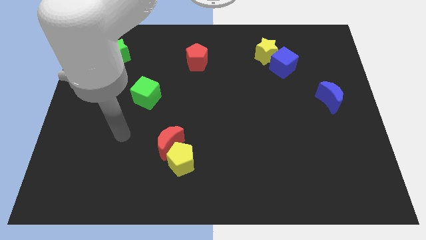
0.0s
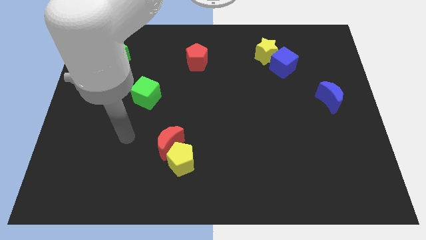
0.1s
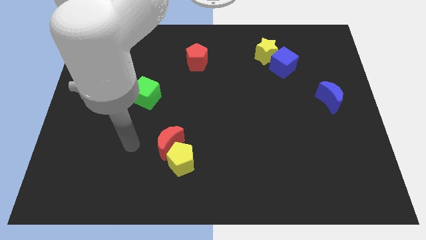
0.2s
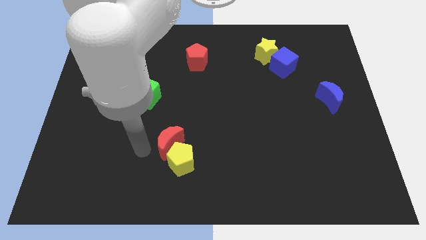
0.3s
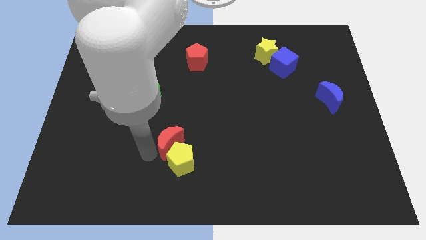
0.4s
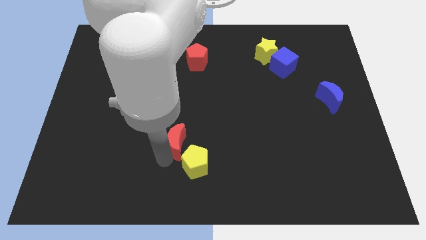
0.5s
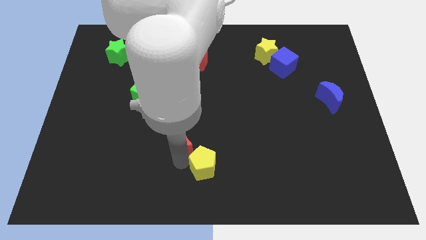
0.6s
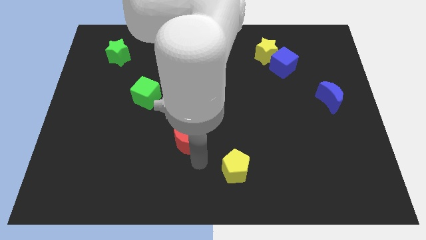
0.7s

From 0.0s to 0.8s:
separate the red moon from the yellow pentagon

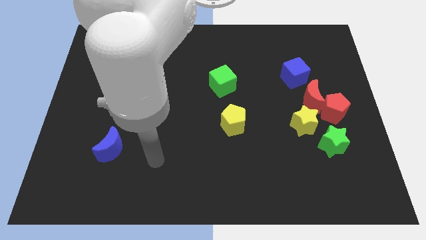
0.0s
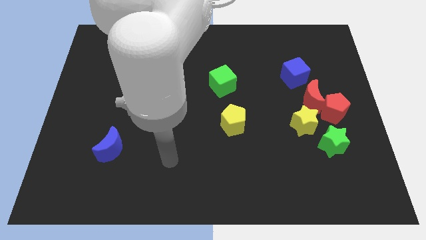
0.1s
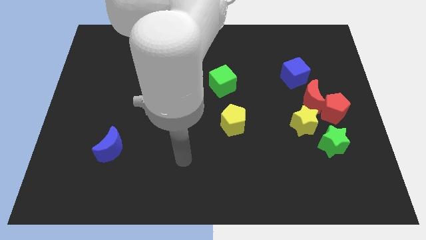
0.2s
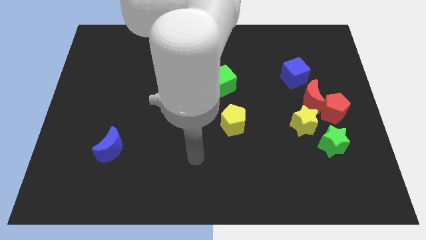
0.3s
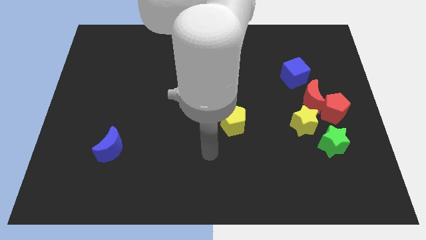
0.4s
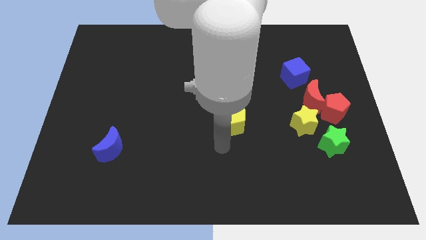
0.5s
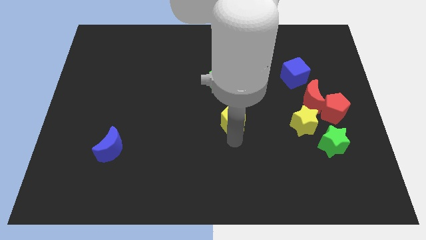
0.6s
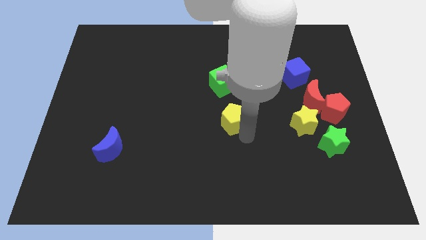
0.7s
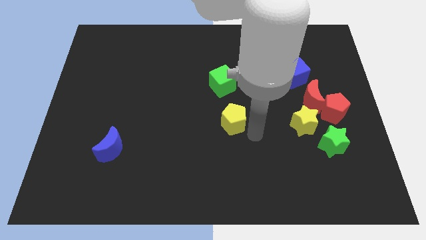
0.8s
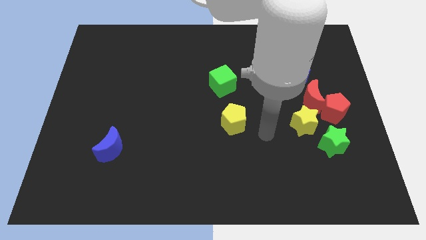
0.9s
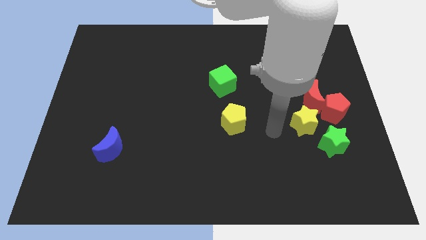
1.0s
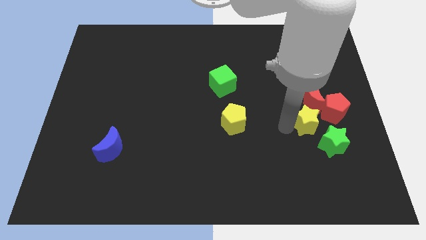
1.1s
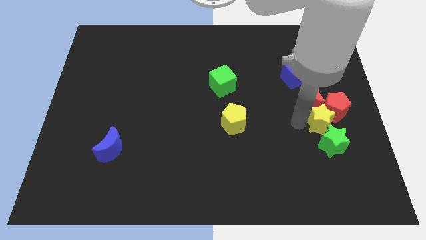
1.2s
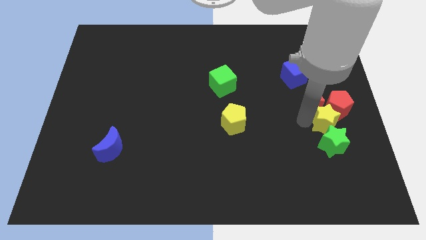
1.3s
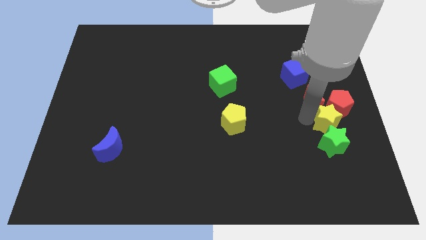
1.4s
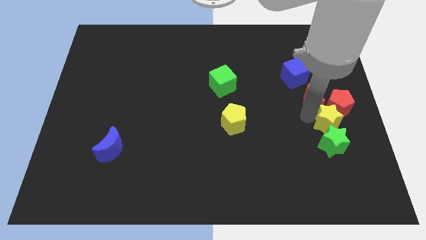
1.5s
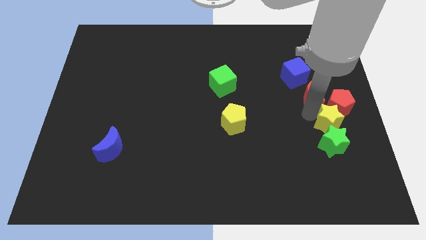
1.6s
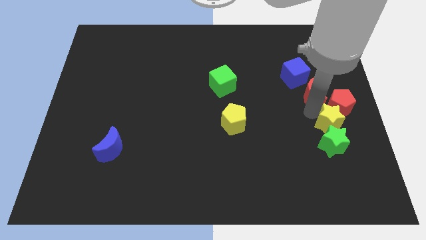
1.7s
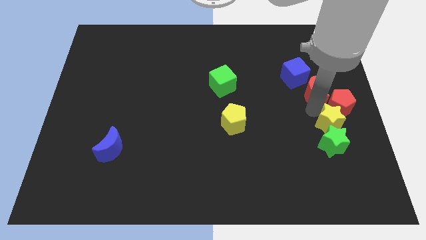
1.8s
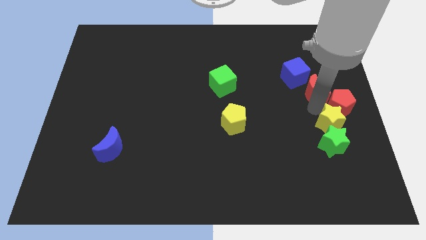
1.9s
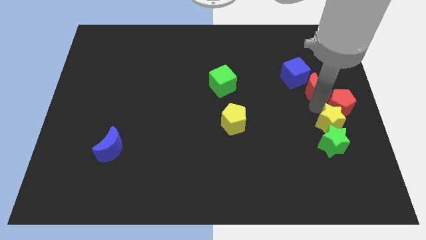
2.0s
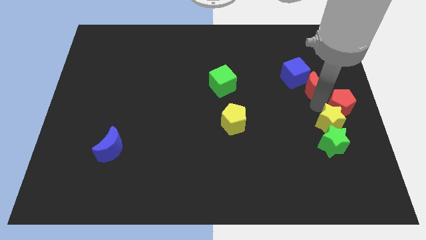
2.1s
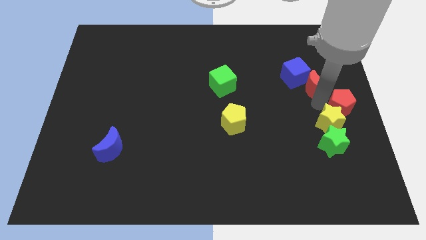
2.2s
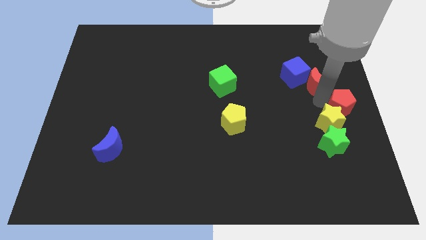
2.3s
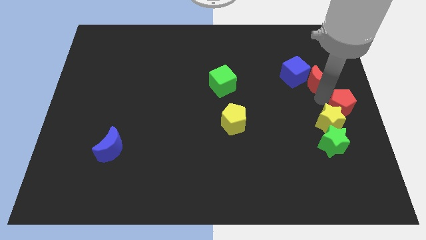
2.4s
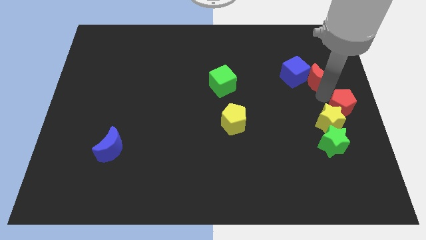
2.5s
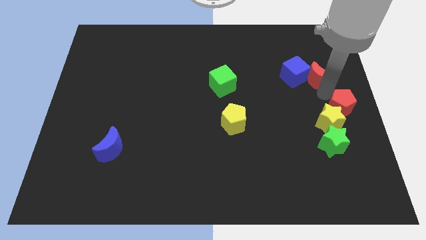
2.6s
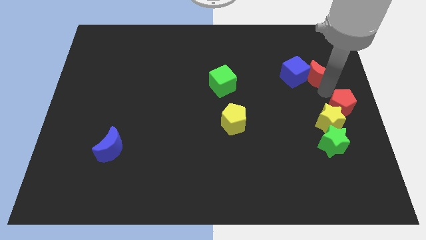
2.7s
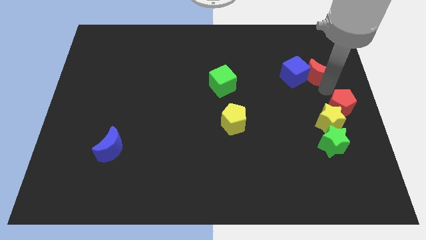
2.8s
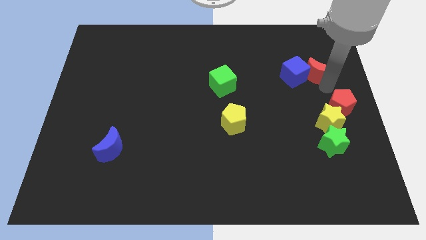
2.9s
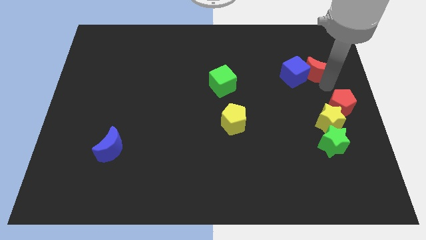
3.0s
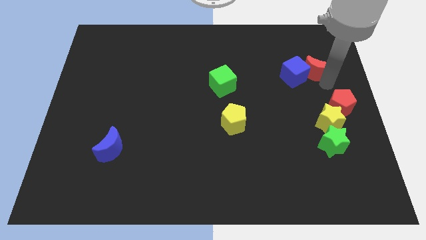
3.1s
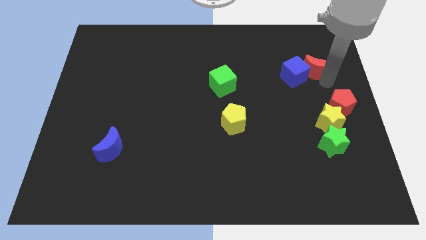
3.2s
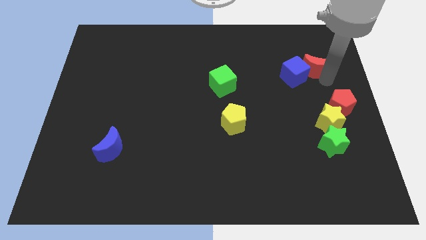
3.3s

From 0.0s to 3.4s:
separate the red moon from the red pentagon, yellow star, and blue cube

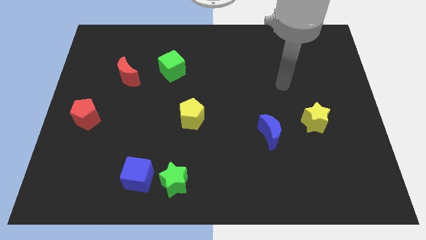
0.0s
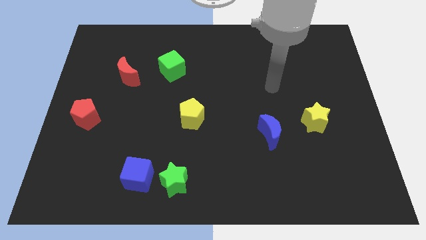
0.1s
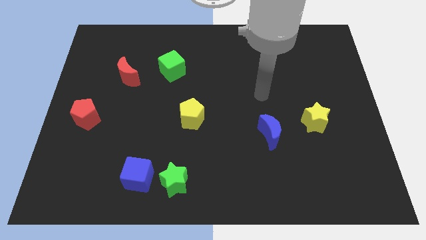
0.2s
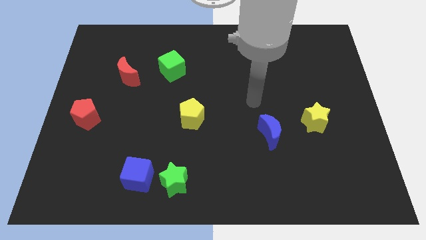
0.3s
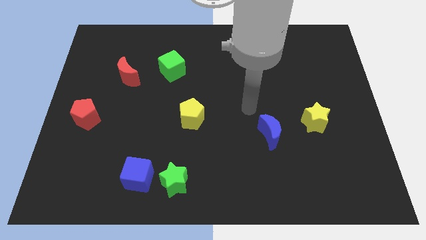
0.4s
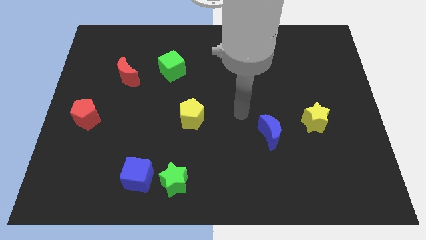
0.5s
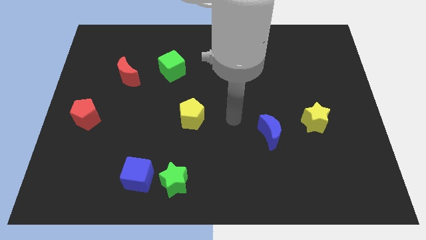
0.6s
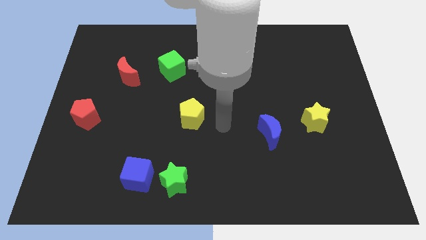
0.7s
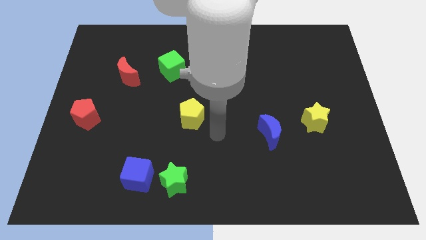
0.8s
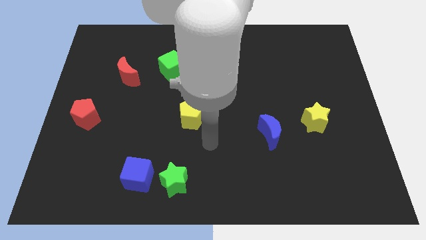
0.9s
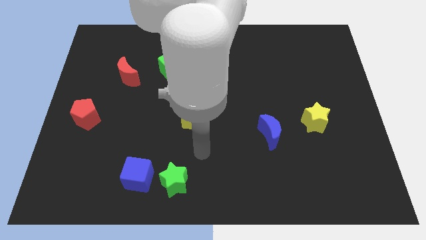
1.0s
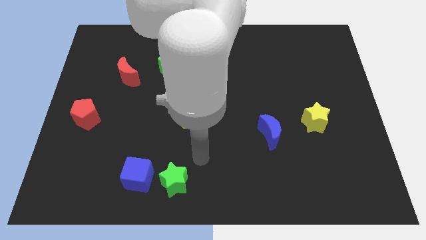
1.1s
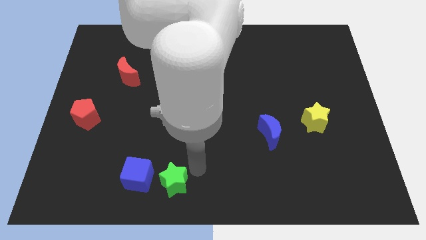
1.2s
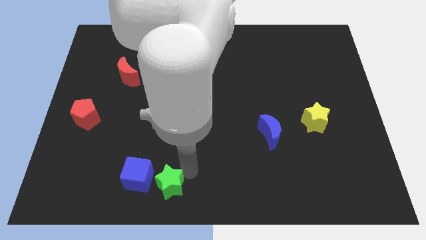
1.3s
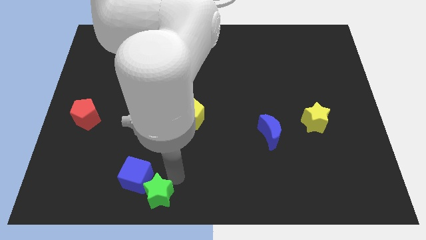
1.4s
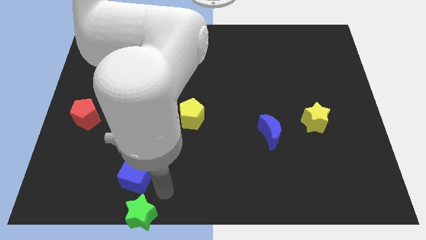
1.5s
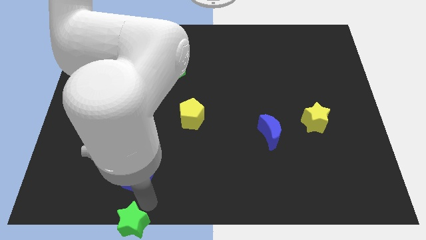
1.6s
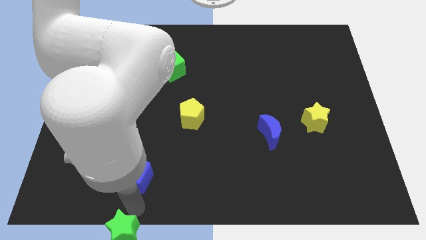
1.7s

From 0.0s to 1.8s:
separate the blue cube from the green star

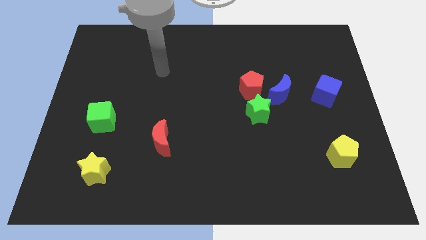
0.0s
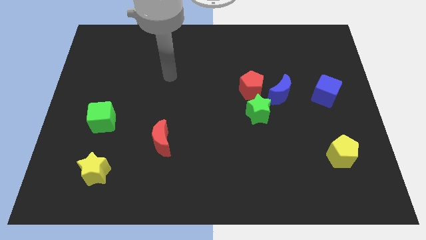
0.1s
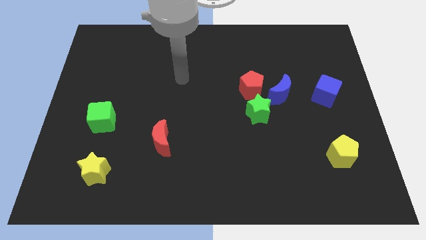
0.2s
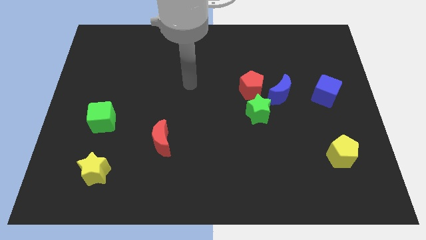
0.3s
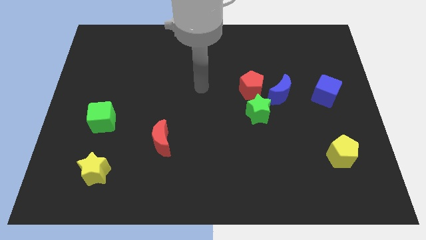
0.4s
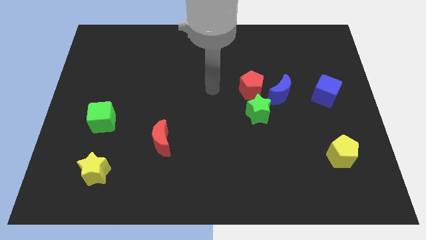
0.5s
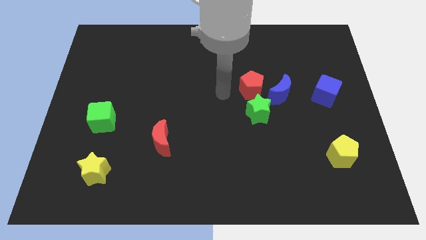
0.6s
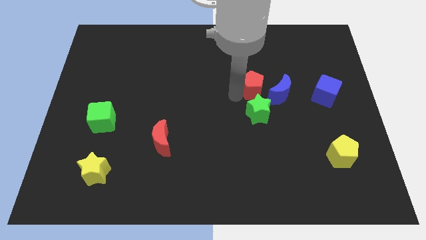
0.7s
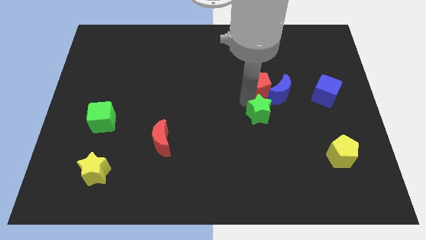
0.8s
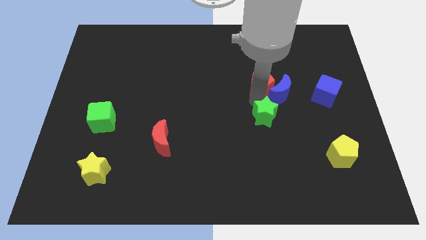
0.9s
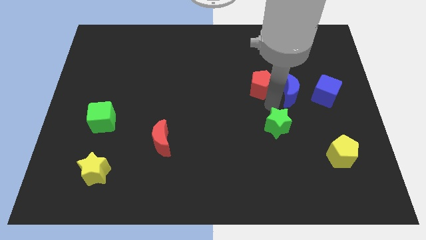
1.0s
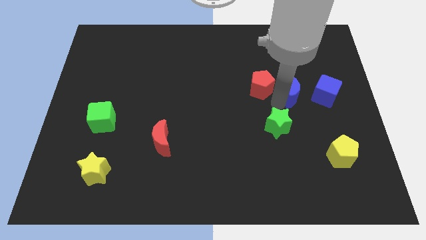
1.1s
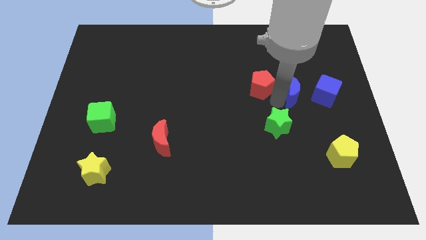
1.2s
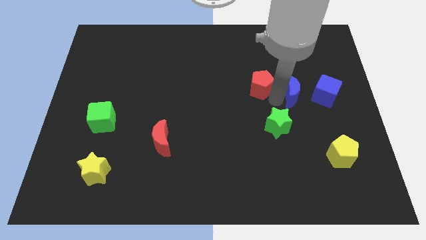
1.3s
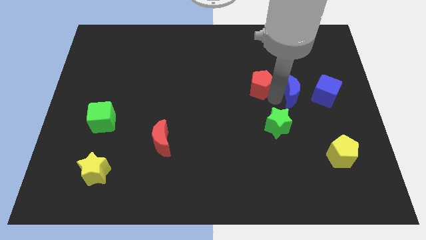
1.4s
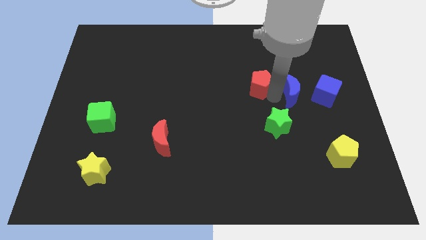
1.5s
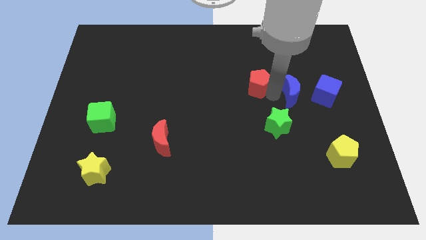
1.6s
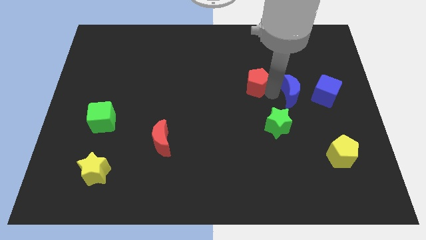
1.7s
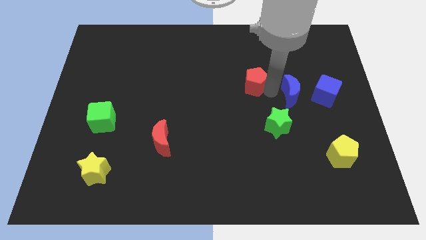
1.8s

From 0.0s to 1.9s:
move the red pentagon away from the blue moon and green star

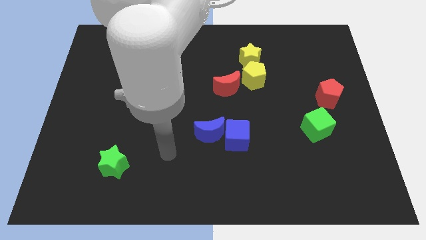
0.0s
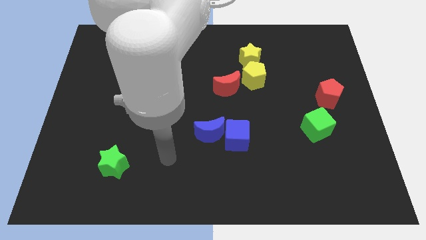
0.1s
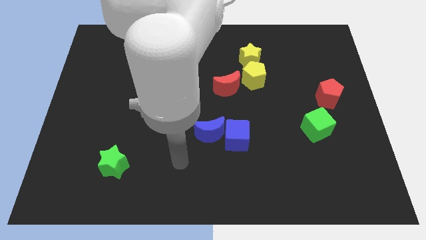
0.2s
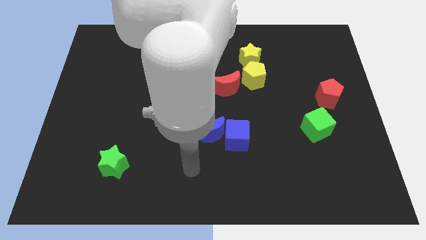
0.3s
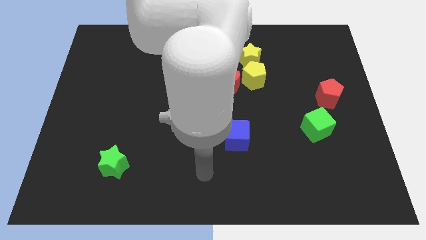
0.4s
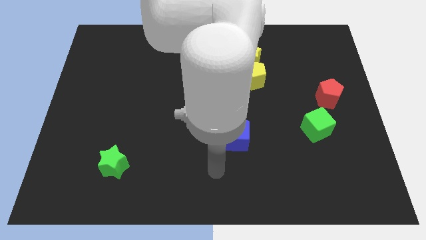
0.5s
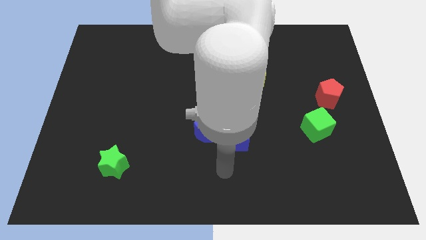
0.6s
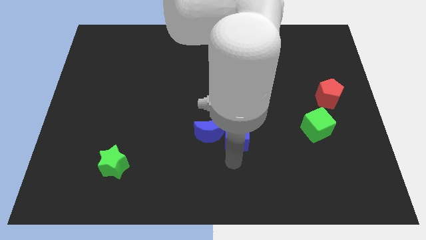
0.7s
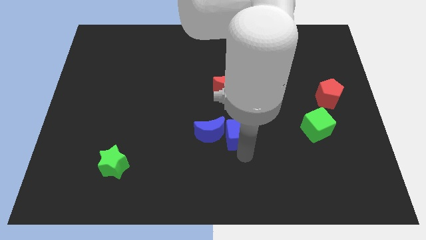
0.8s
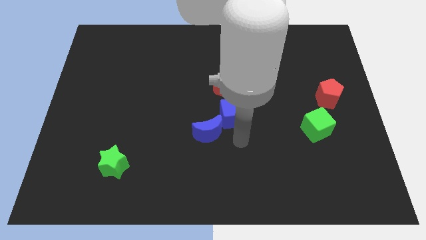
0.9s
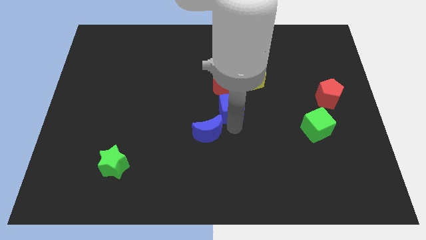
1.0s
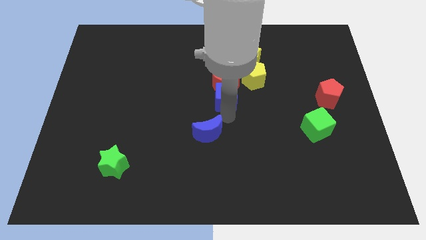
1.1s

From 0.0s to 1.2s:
pull the blue moon apart from the blue cube

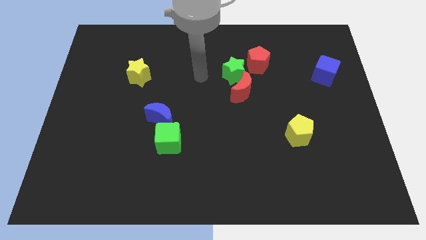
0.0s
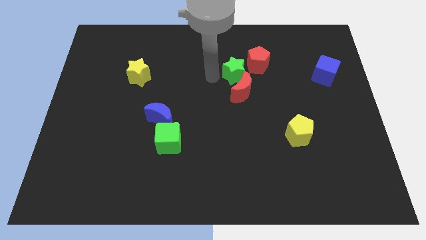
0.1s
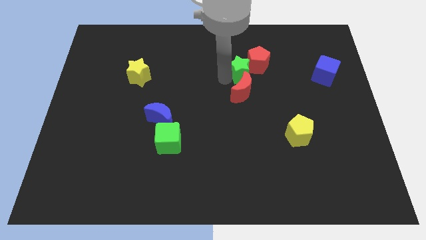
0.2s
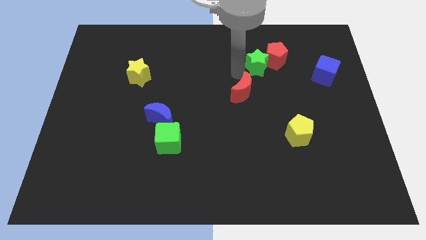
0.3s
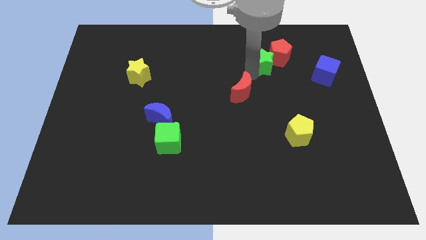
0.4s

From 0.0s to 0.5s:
pull the red moon apart from the green star
